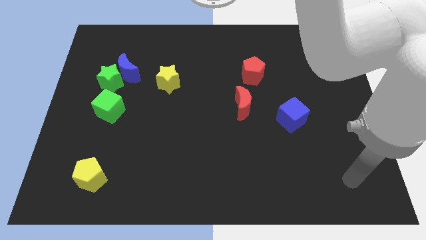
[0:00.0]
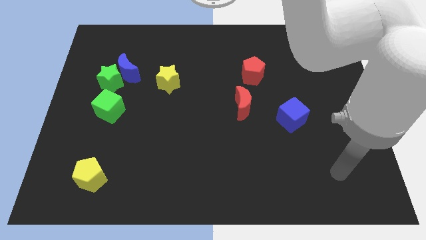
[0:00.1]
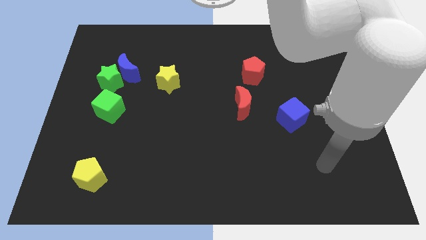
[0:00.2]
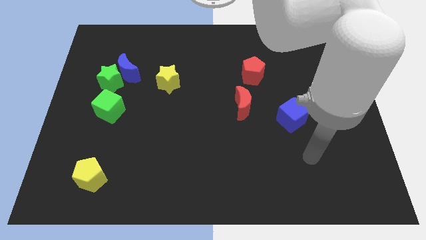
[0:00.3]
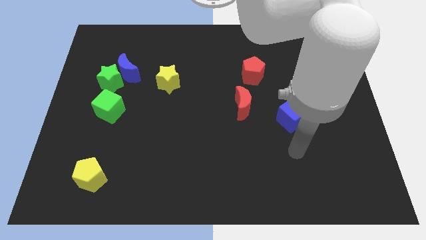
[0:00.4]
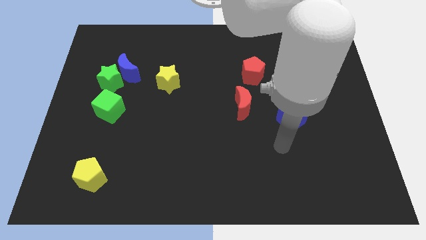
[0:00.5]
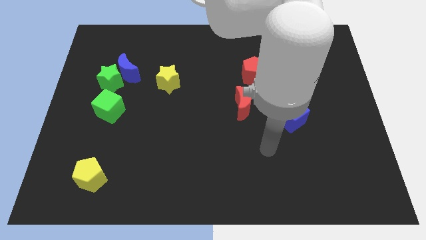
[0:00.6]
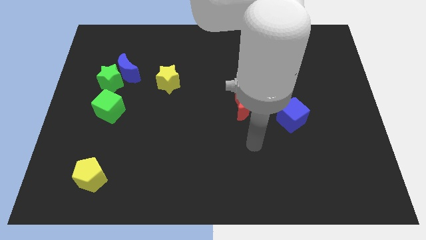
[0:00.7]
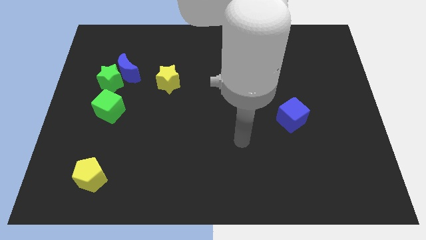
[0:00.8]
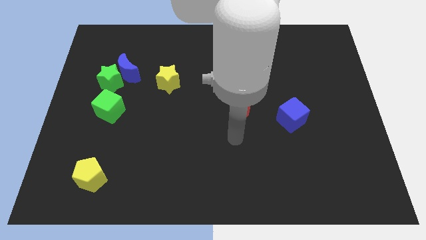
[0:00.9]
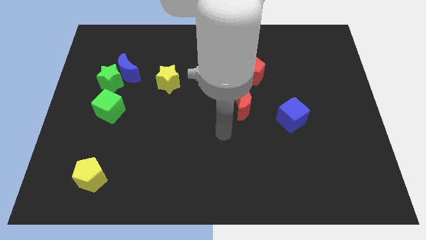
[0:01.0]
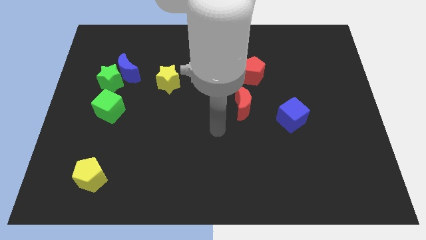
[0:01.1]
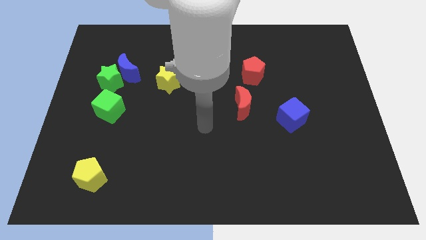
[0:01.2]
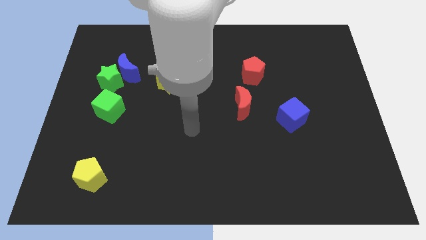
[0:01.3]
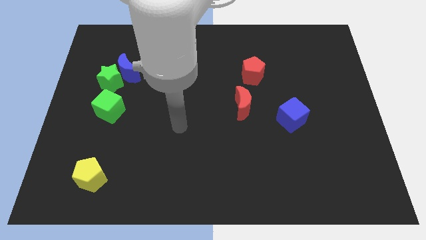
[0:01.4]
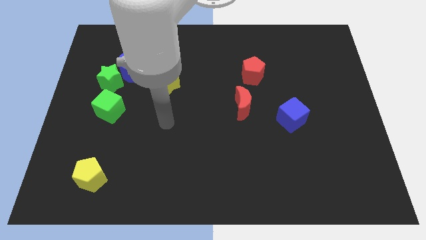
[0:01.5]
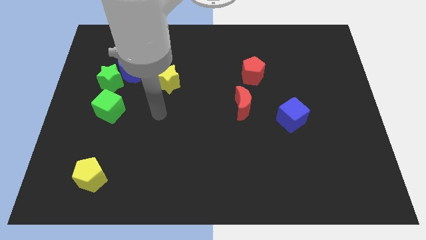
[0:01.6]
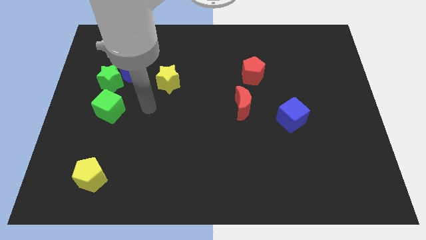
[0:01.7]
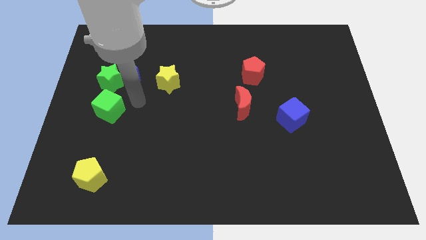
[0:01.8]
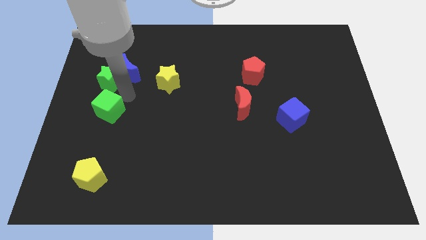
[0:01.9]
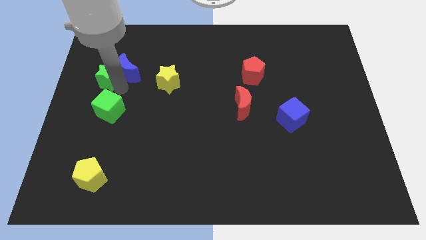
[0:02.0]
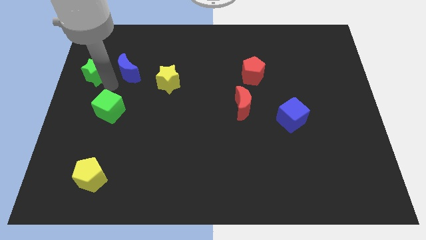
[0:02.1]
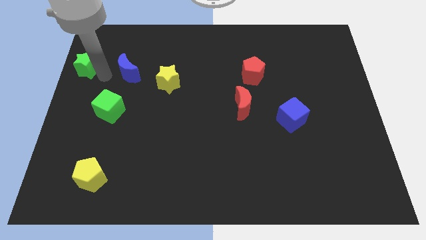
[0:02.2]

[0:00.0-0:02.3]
pull the blue moon apart from the green star

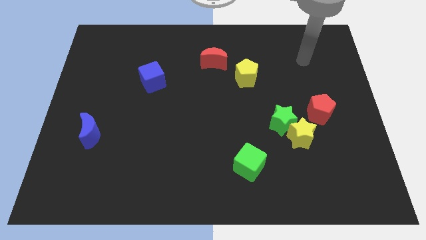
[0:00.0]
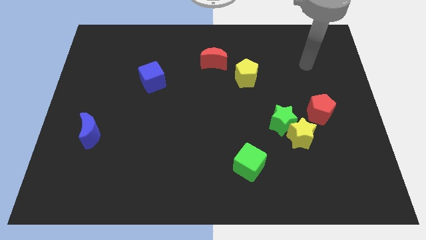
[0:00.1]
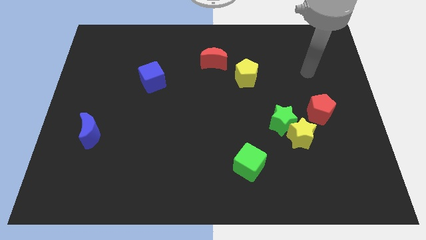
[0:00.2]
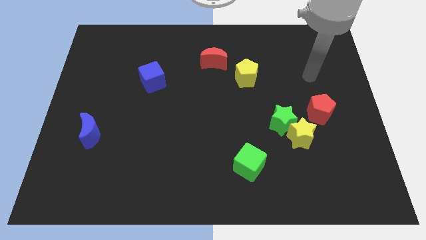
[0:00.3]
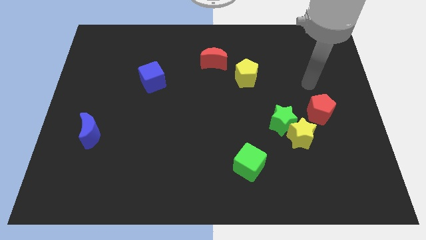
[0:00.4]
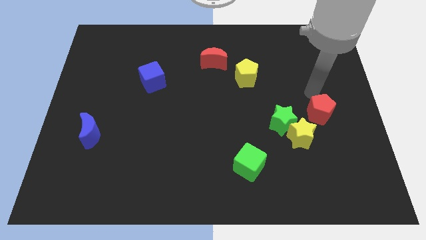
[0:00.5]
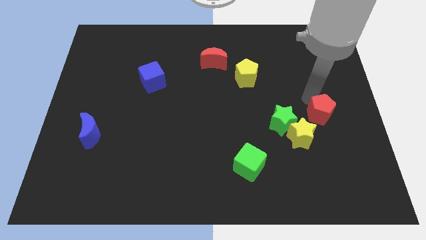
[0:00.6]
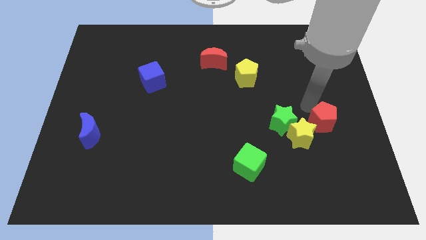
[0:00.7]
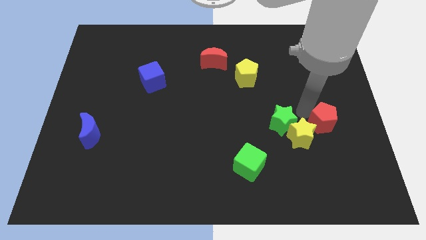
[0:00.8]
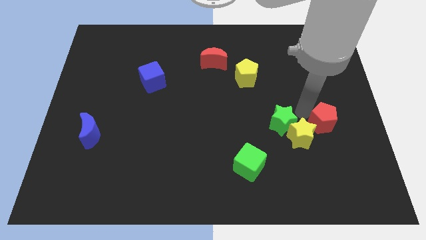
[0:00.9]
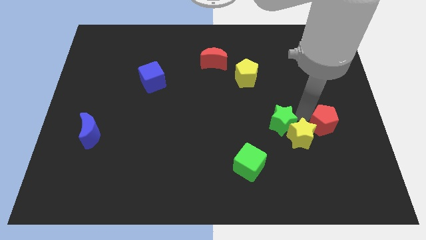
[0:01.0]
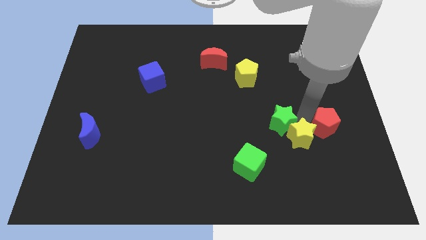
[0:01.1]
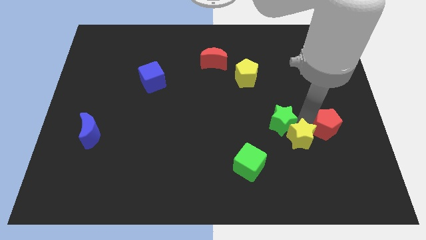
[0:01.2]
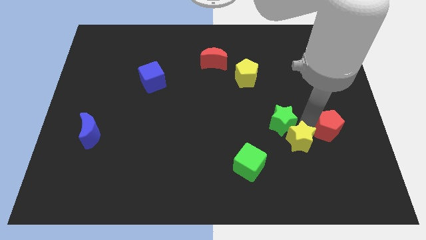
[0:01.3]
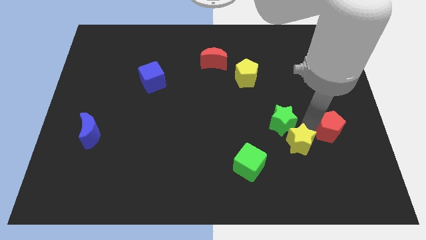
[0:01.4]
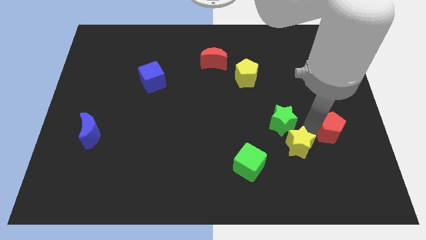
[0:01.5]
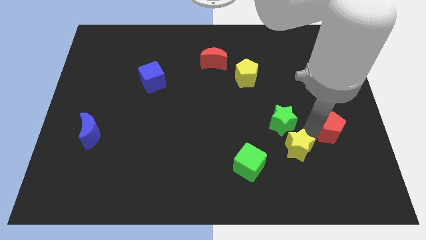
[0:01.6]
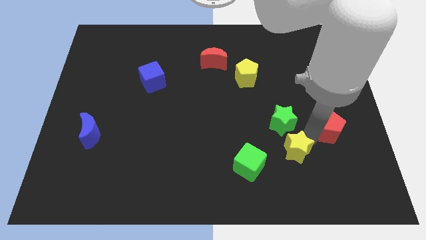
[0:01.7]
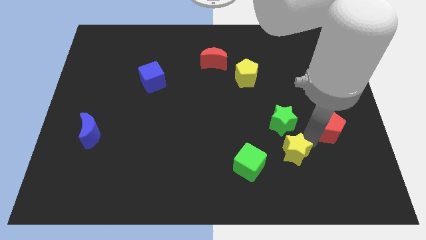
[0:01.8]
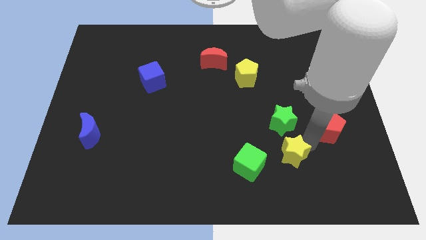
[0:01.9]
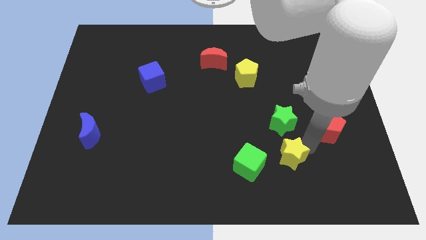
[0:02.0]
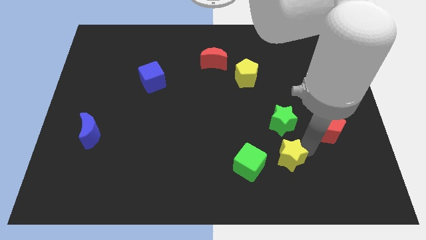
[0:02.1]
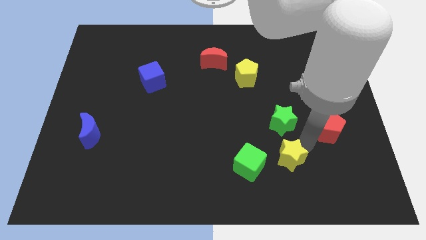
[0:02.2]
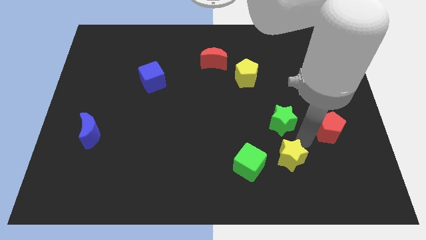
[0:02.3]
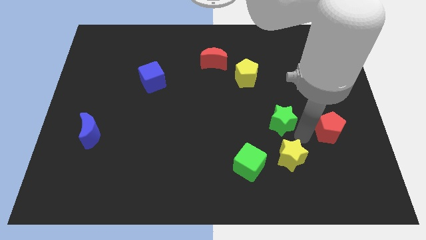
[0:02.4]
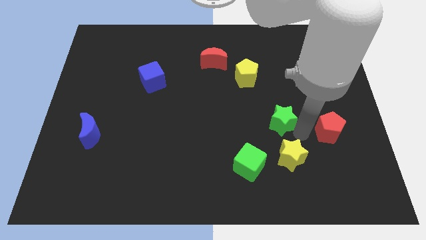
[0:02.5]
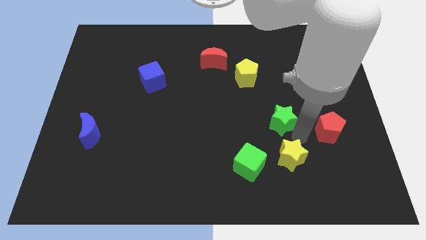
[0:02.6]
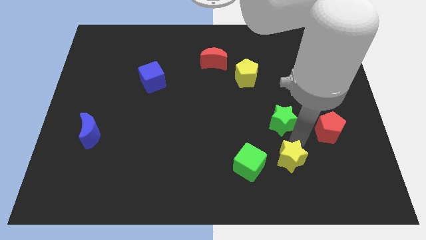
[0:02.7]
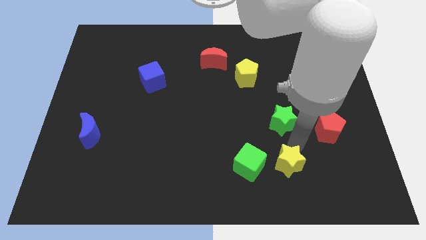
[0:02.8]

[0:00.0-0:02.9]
pull the yellow star apart from the green star and red pentagon

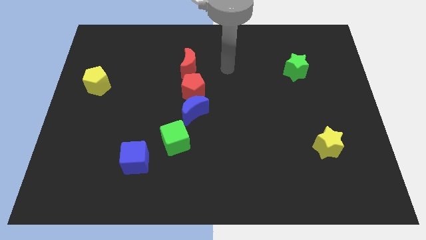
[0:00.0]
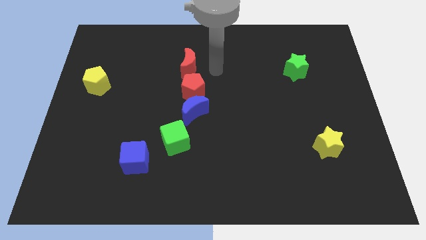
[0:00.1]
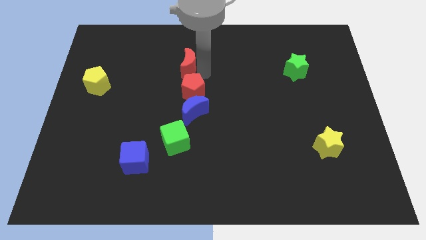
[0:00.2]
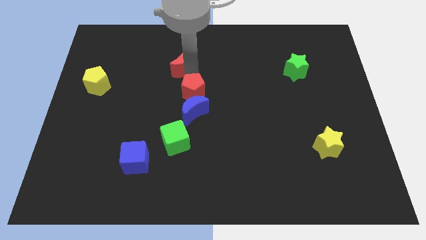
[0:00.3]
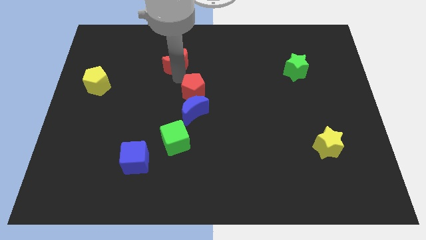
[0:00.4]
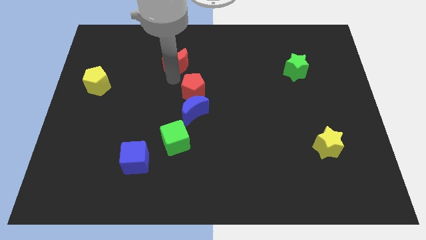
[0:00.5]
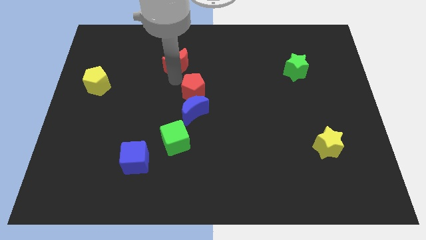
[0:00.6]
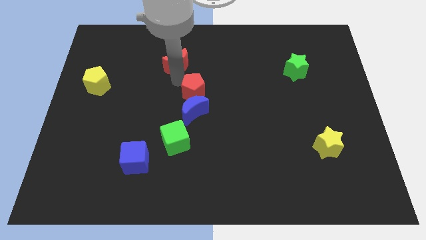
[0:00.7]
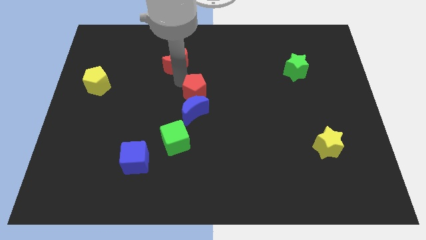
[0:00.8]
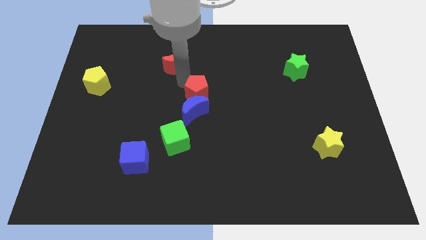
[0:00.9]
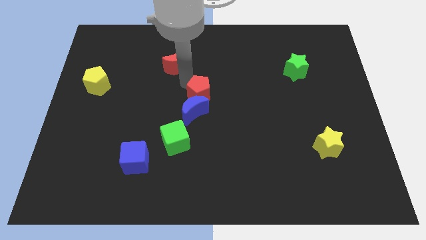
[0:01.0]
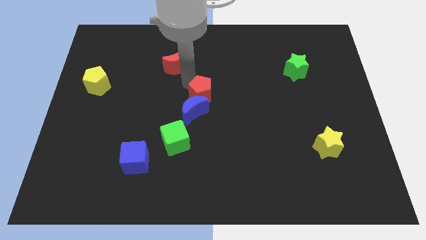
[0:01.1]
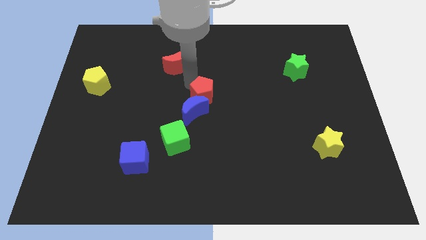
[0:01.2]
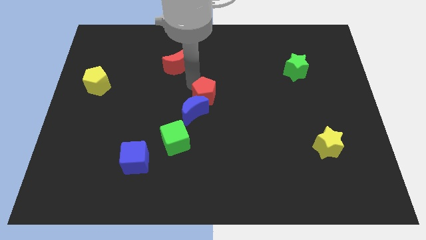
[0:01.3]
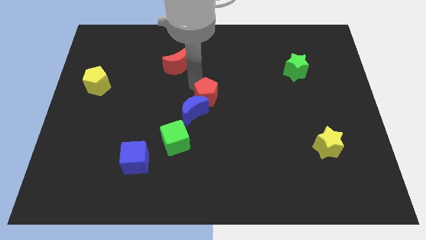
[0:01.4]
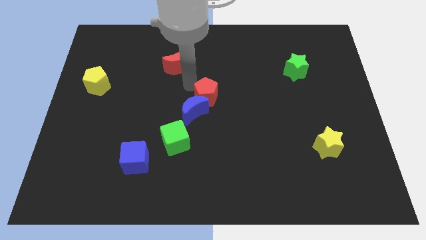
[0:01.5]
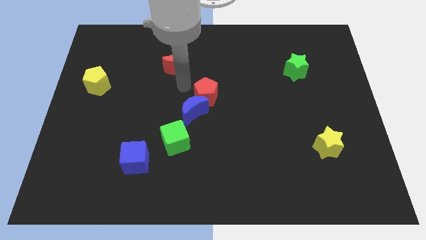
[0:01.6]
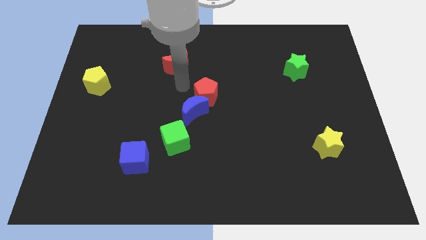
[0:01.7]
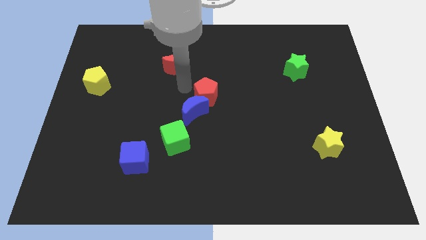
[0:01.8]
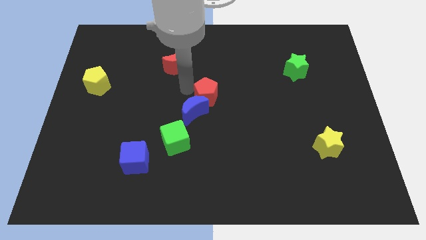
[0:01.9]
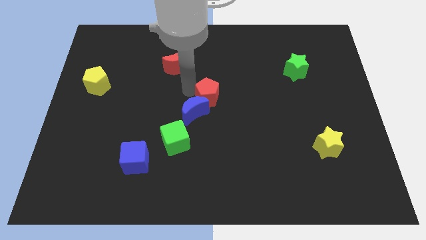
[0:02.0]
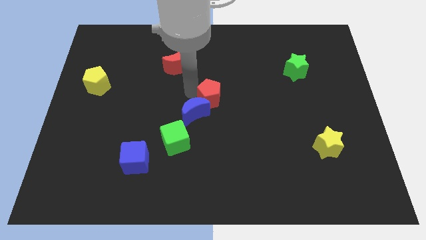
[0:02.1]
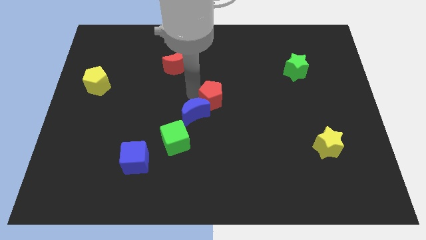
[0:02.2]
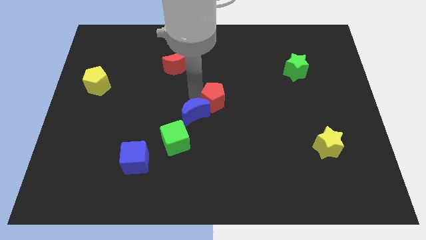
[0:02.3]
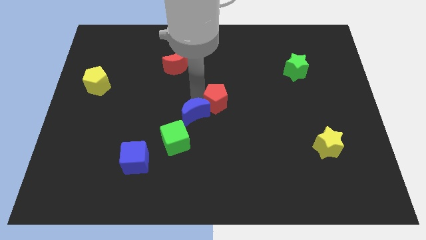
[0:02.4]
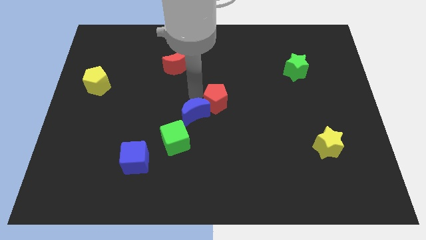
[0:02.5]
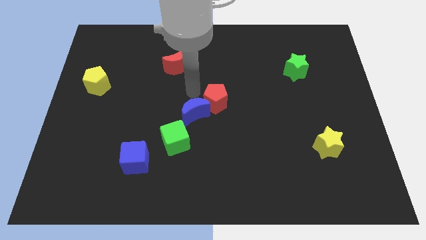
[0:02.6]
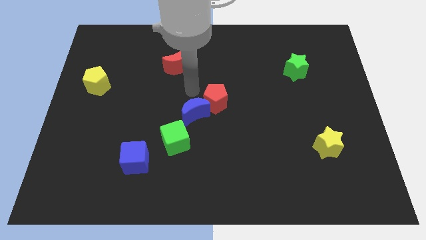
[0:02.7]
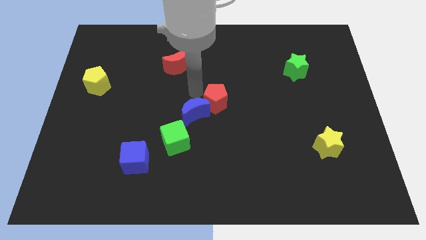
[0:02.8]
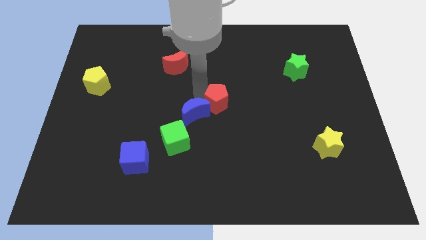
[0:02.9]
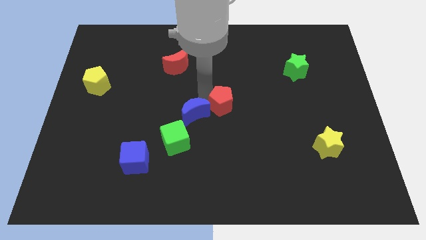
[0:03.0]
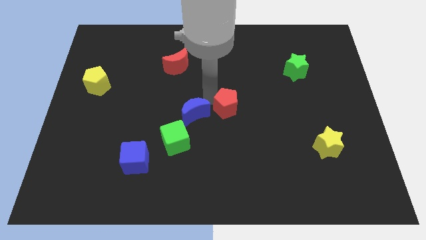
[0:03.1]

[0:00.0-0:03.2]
move the red pentagon away from the blue moon and red moon

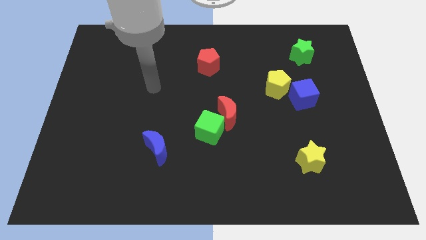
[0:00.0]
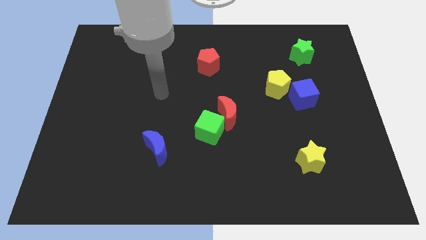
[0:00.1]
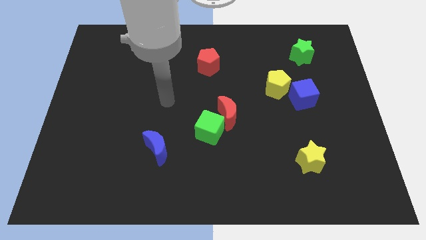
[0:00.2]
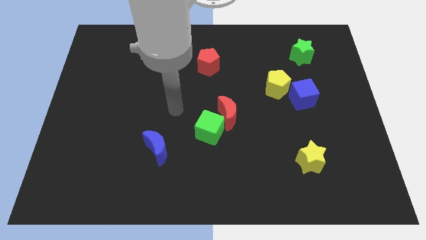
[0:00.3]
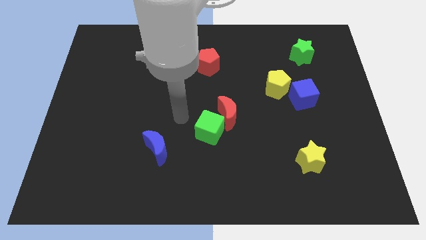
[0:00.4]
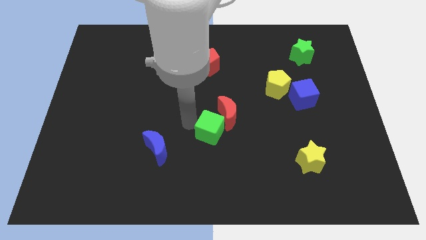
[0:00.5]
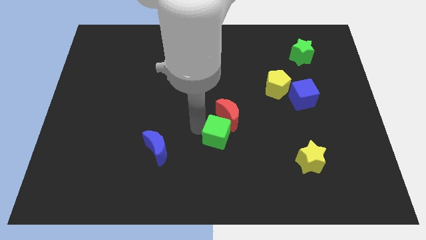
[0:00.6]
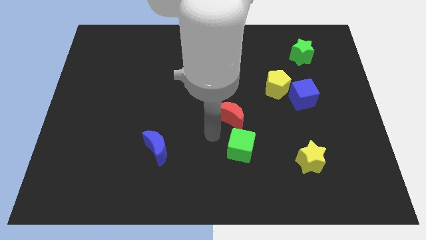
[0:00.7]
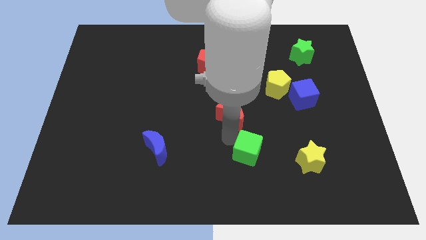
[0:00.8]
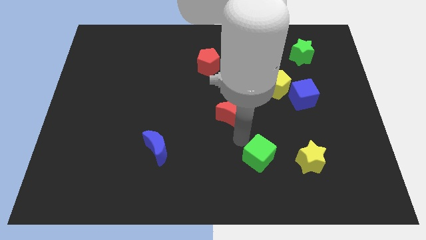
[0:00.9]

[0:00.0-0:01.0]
move the red moon away from the green cube
